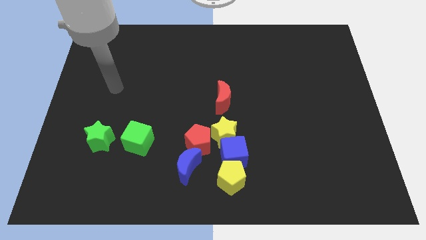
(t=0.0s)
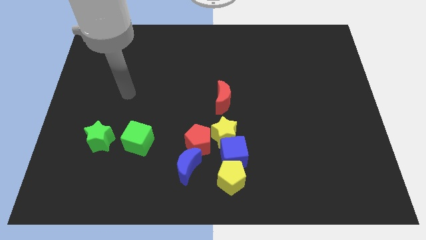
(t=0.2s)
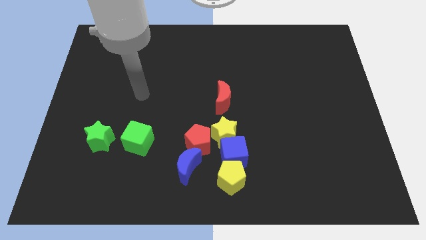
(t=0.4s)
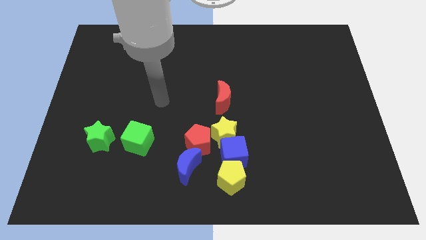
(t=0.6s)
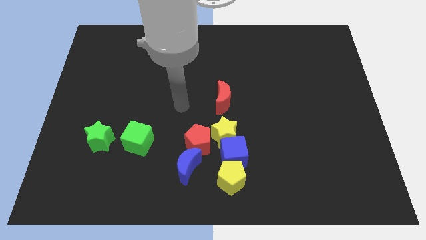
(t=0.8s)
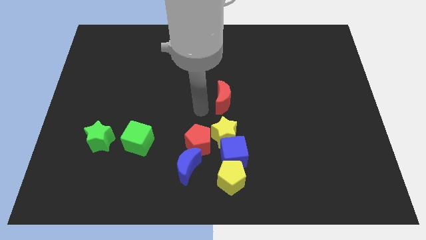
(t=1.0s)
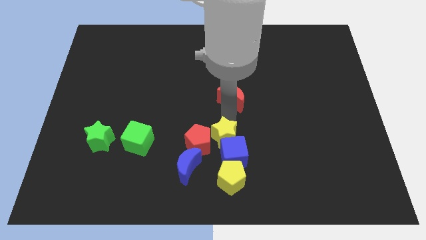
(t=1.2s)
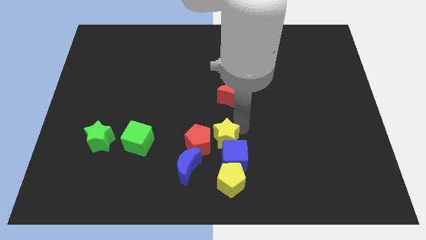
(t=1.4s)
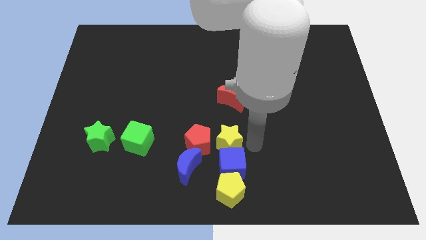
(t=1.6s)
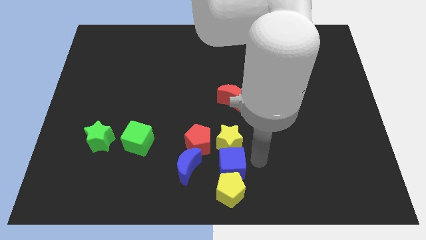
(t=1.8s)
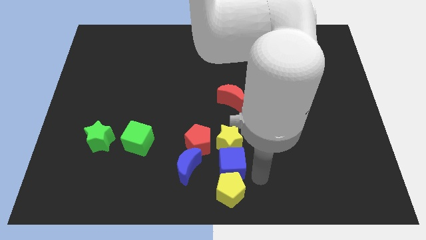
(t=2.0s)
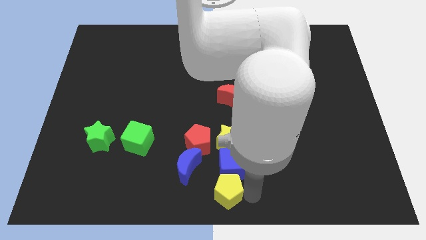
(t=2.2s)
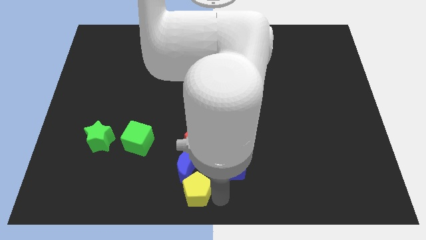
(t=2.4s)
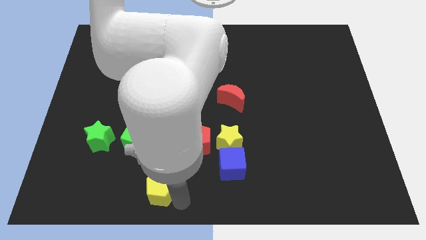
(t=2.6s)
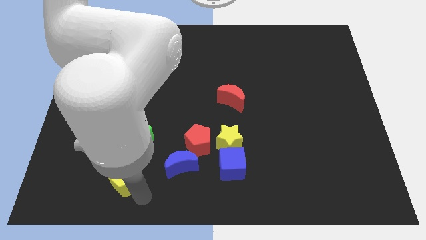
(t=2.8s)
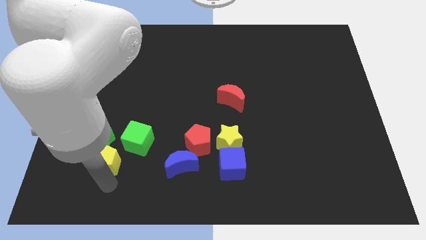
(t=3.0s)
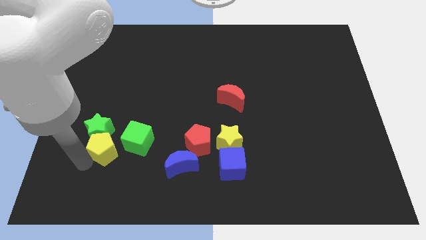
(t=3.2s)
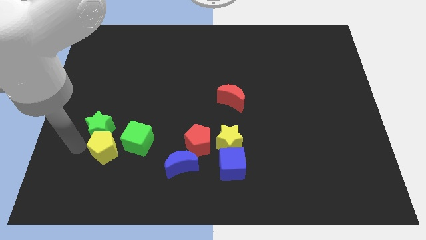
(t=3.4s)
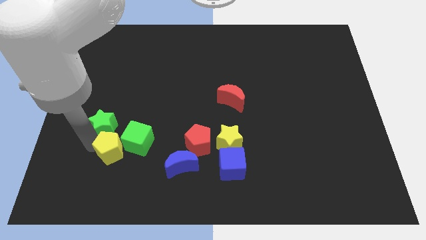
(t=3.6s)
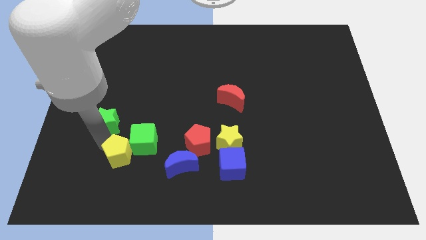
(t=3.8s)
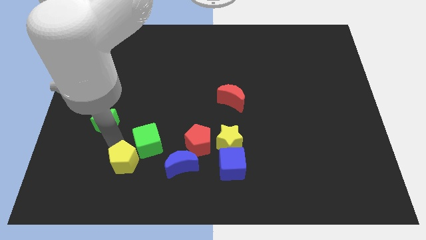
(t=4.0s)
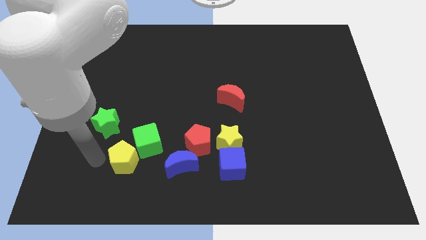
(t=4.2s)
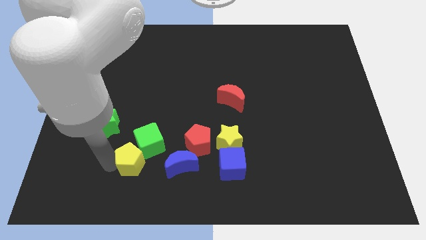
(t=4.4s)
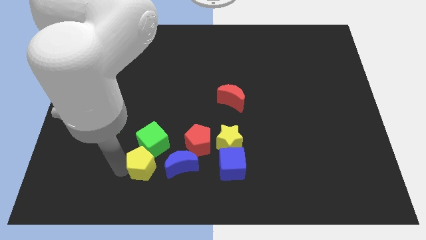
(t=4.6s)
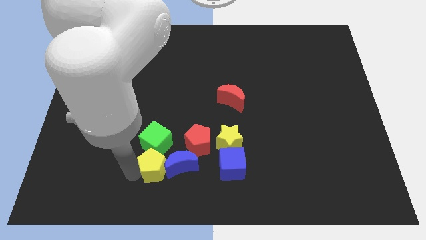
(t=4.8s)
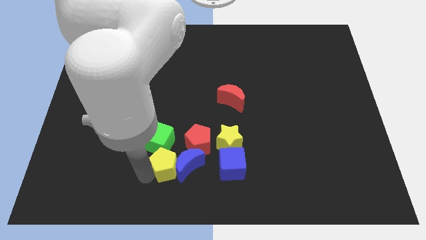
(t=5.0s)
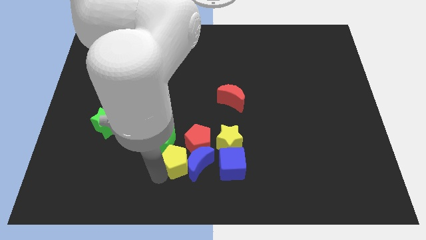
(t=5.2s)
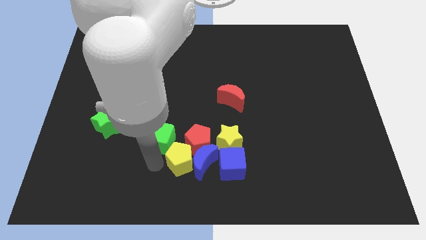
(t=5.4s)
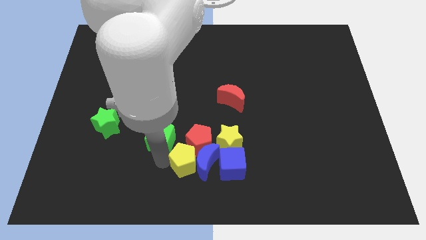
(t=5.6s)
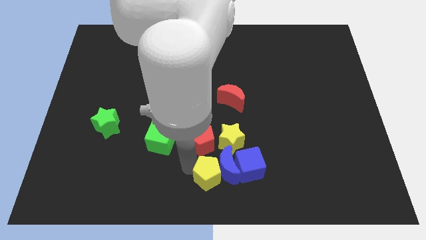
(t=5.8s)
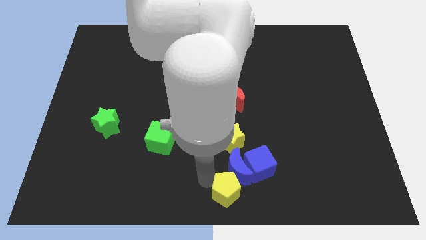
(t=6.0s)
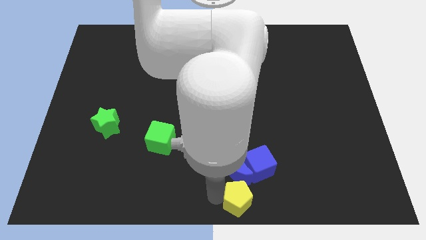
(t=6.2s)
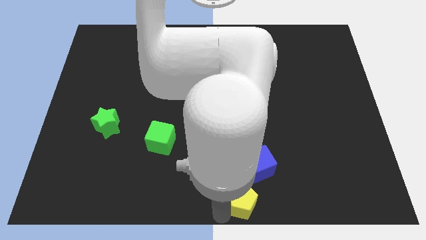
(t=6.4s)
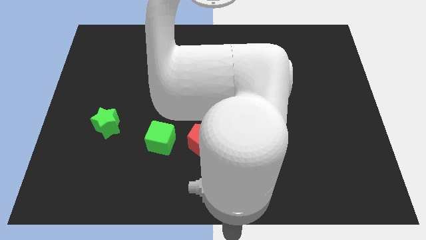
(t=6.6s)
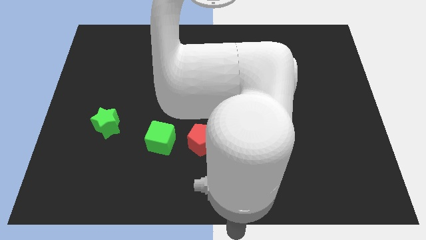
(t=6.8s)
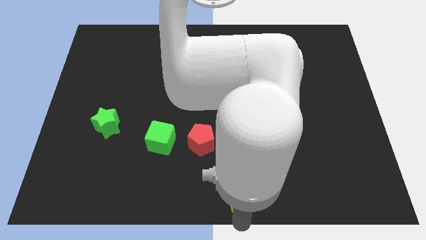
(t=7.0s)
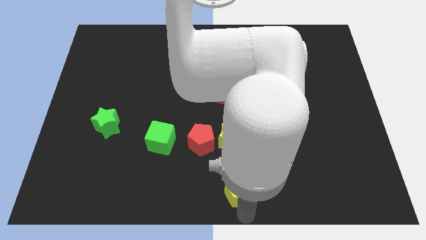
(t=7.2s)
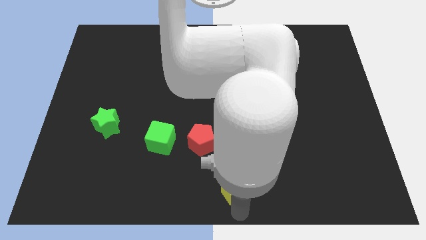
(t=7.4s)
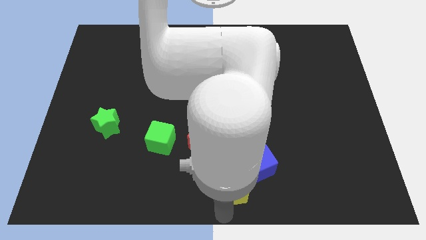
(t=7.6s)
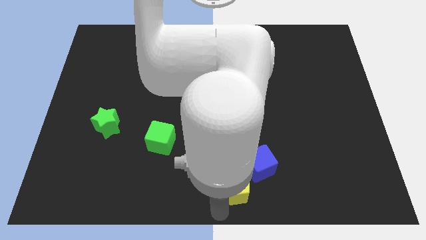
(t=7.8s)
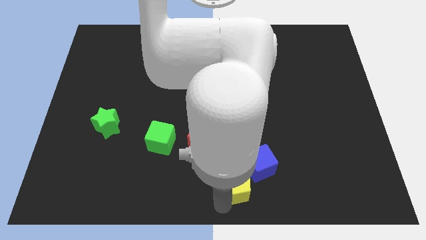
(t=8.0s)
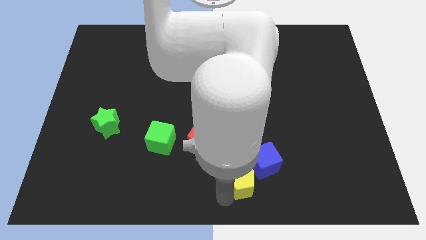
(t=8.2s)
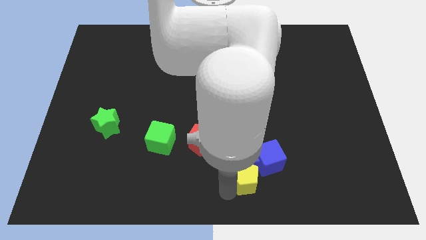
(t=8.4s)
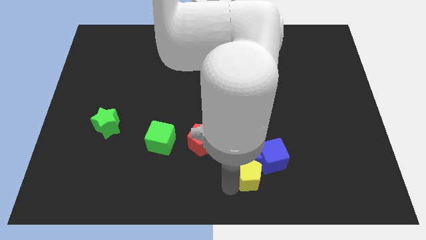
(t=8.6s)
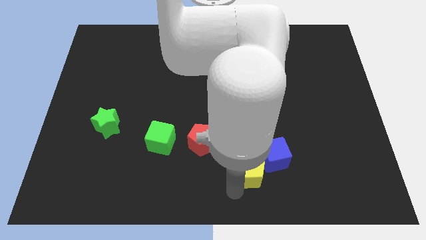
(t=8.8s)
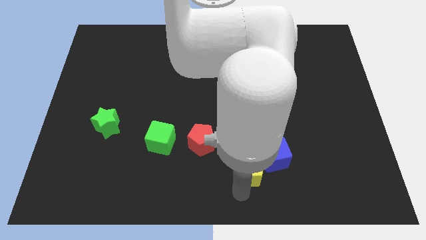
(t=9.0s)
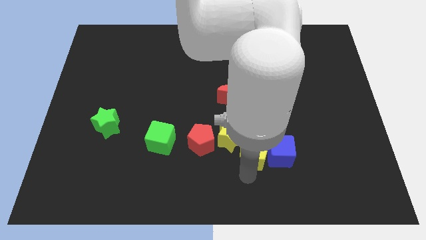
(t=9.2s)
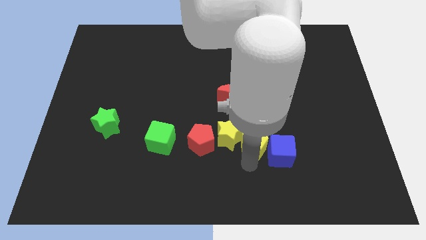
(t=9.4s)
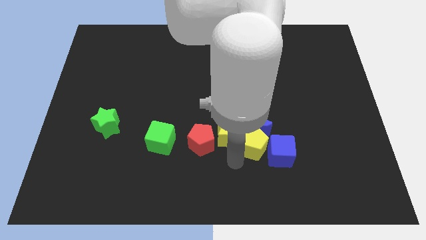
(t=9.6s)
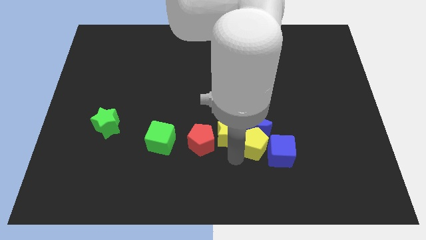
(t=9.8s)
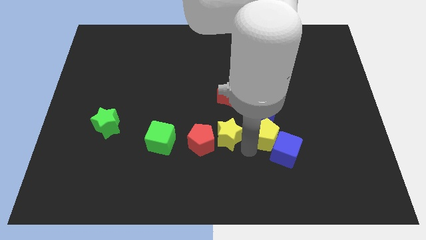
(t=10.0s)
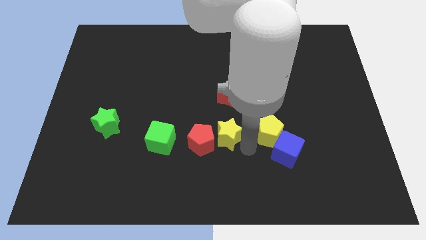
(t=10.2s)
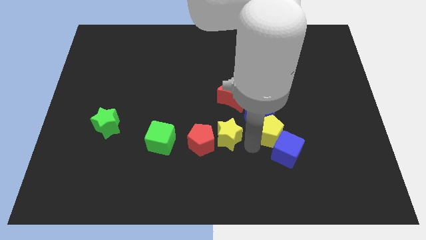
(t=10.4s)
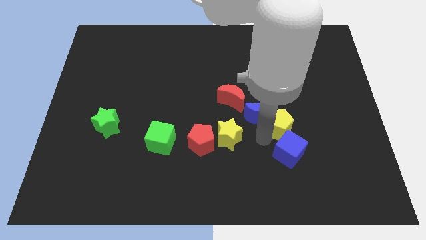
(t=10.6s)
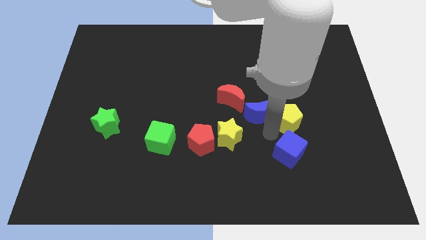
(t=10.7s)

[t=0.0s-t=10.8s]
push the yellow pentagon up and then to the right

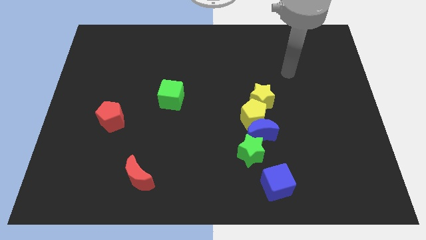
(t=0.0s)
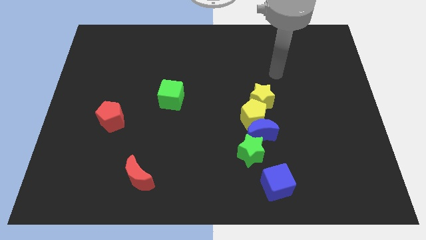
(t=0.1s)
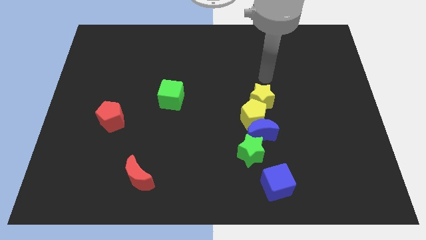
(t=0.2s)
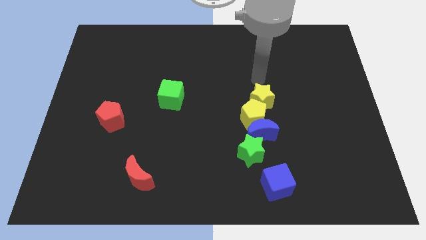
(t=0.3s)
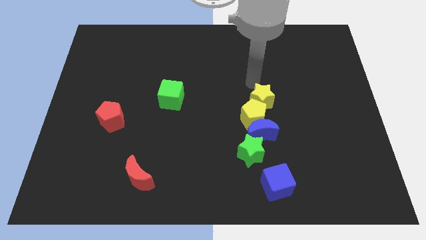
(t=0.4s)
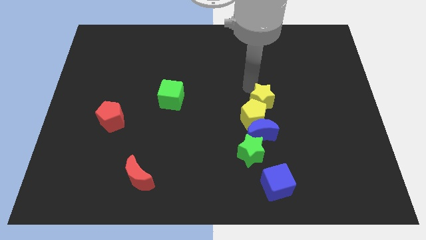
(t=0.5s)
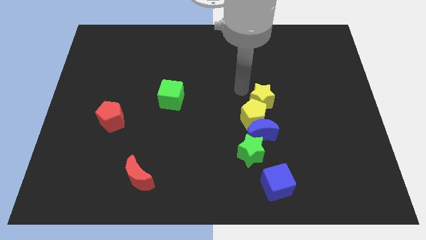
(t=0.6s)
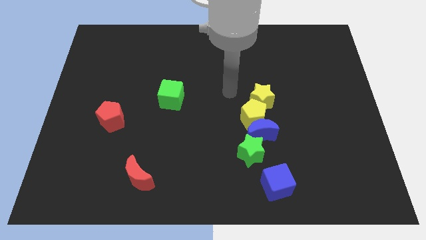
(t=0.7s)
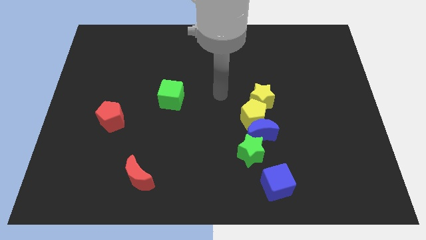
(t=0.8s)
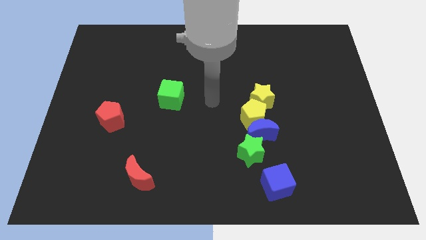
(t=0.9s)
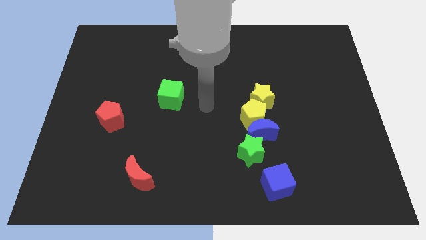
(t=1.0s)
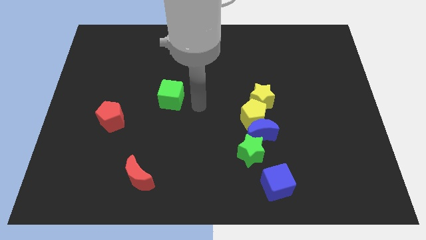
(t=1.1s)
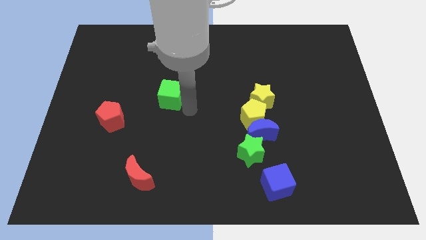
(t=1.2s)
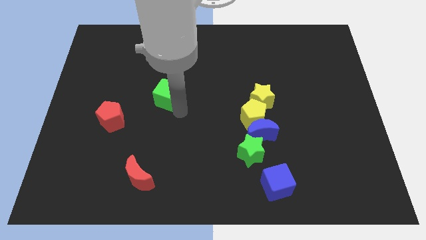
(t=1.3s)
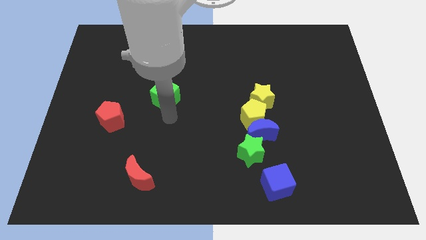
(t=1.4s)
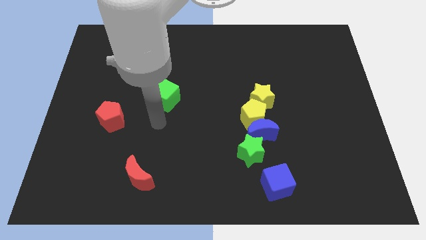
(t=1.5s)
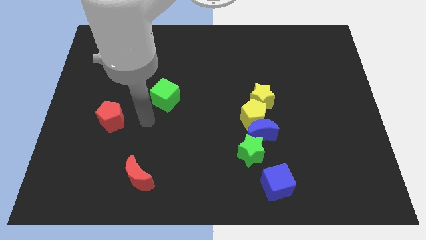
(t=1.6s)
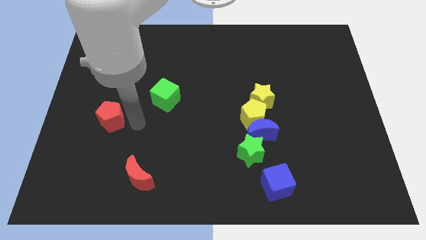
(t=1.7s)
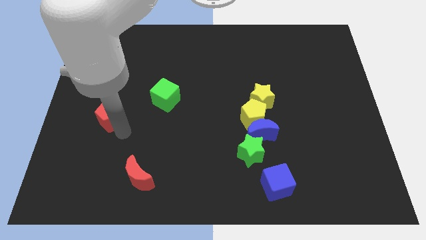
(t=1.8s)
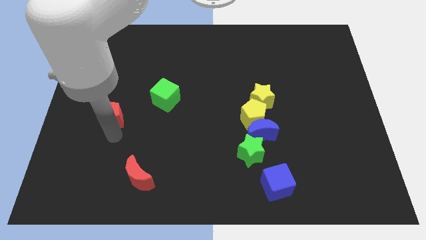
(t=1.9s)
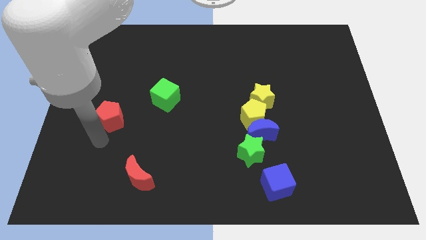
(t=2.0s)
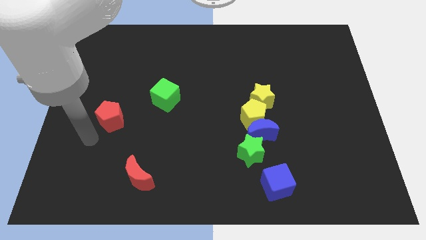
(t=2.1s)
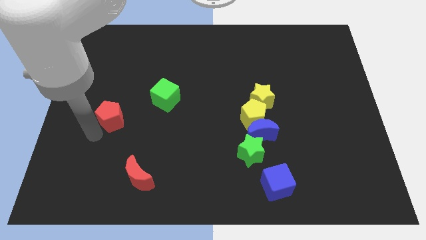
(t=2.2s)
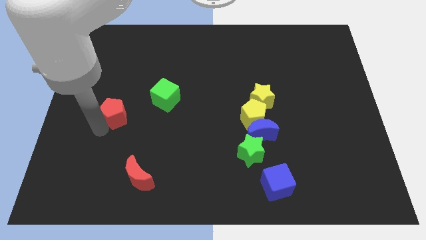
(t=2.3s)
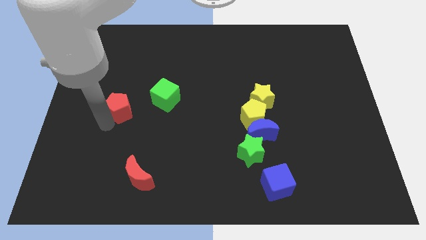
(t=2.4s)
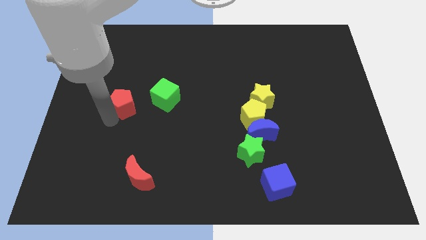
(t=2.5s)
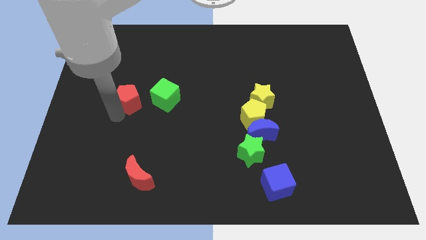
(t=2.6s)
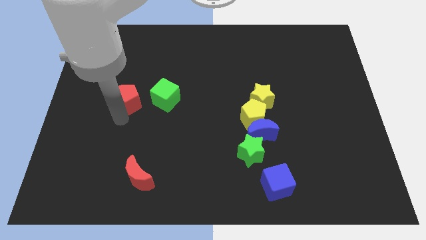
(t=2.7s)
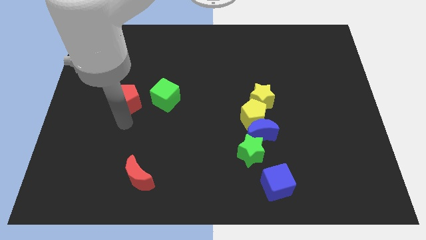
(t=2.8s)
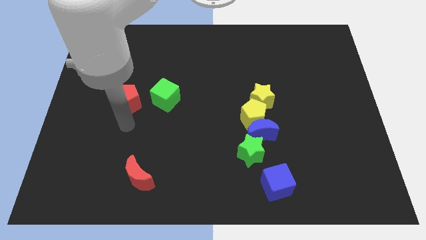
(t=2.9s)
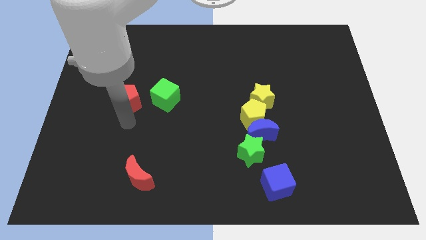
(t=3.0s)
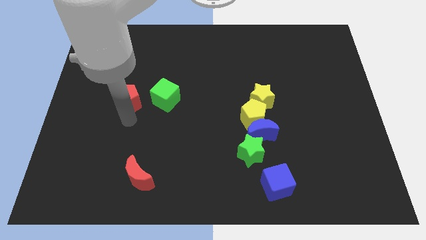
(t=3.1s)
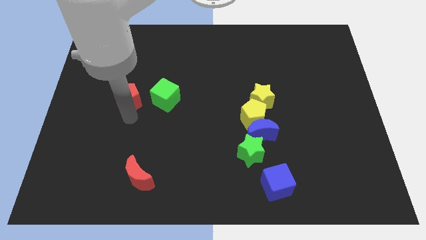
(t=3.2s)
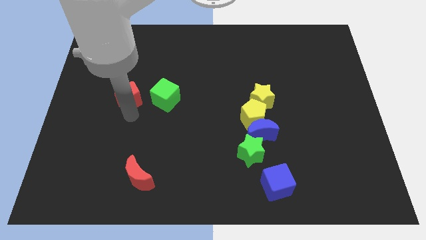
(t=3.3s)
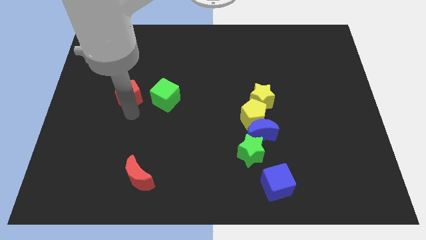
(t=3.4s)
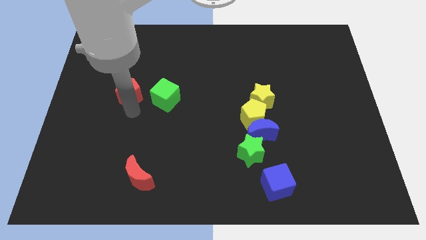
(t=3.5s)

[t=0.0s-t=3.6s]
push the red pentagon upwards somewhat
